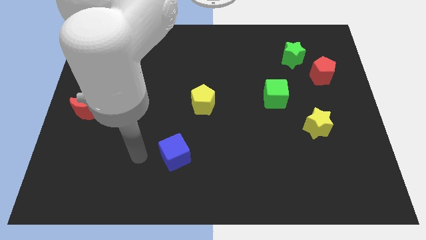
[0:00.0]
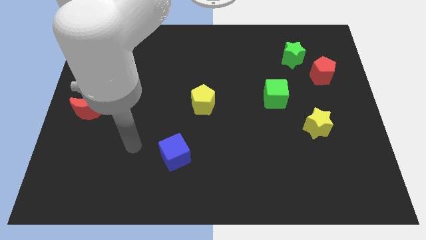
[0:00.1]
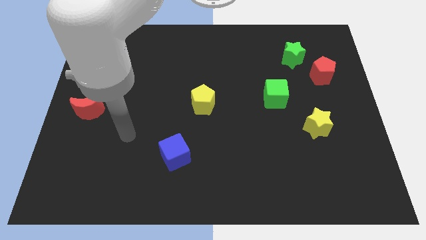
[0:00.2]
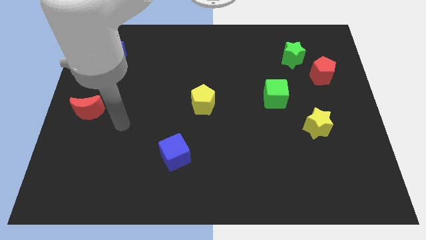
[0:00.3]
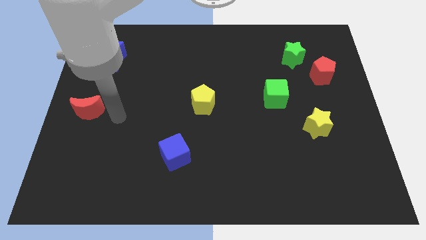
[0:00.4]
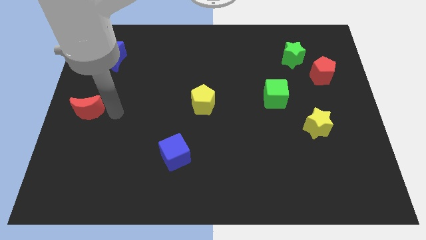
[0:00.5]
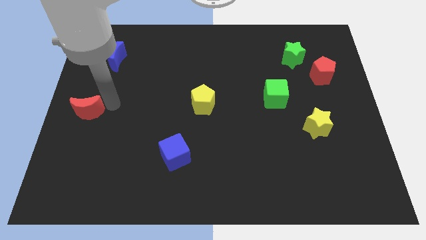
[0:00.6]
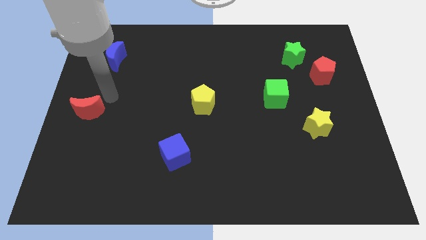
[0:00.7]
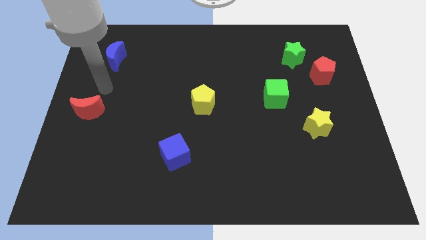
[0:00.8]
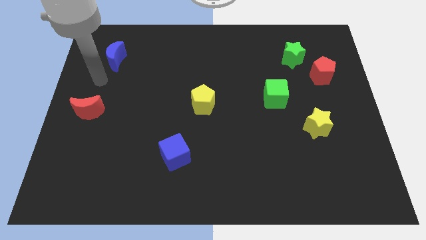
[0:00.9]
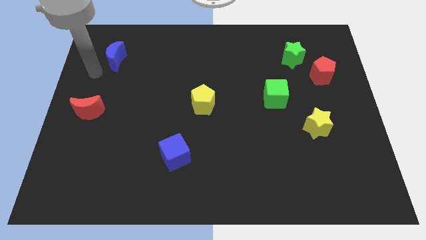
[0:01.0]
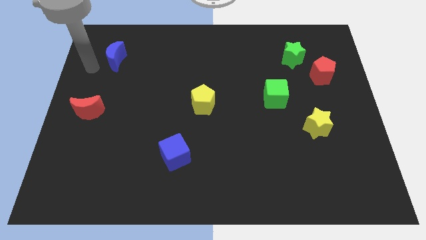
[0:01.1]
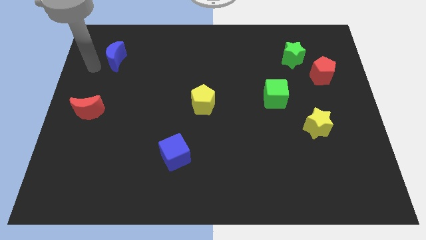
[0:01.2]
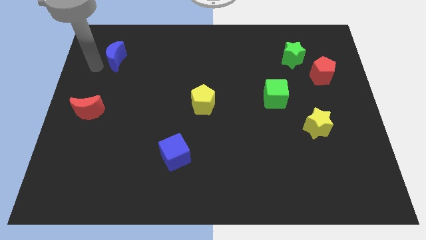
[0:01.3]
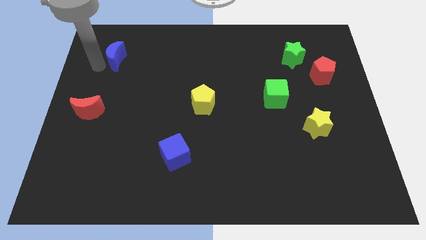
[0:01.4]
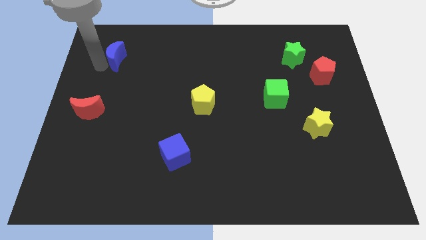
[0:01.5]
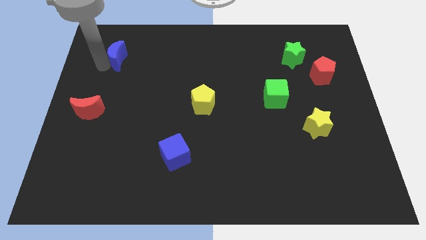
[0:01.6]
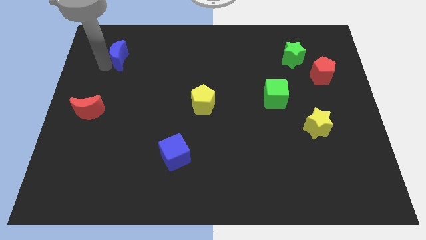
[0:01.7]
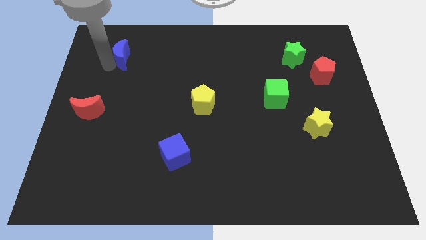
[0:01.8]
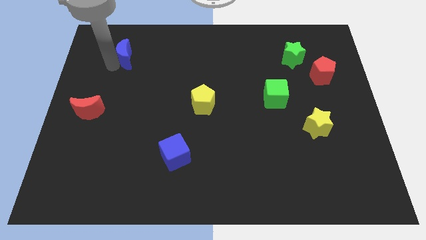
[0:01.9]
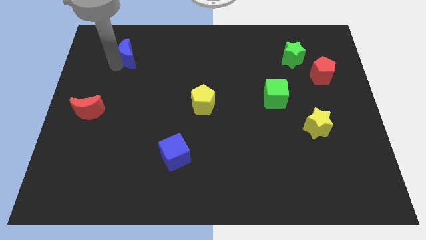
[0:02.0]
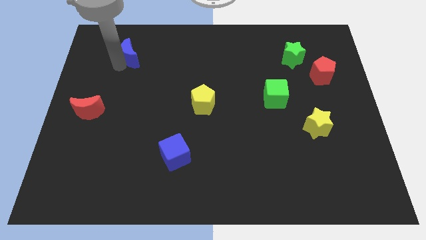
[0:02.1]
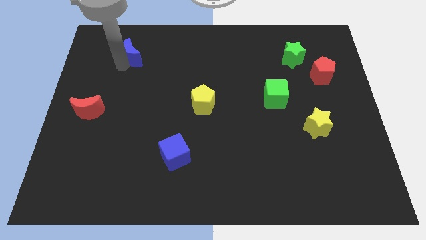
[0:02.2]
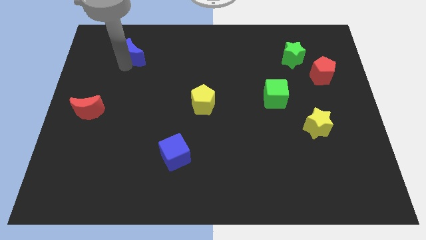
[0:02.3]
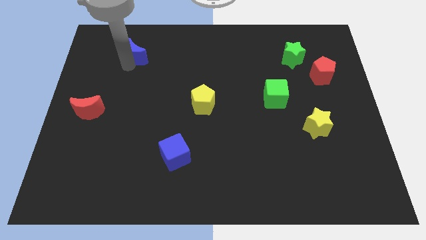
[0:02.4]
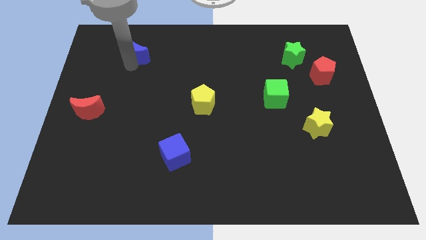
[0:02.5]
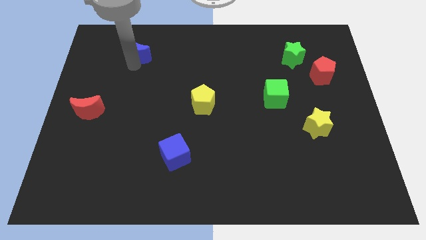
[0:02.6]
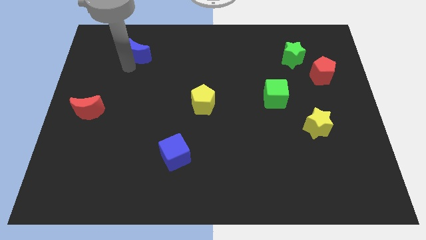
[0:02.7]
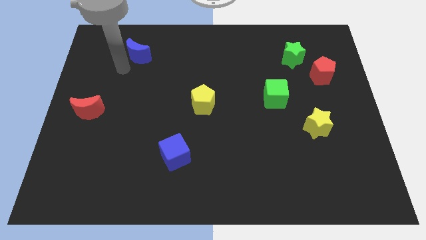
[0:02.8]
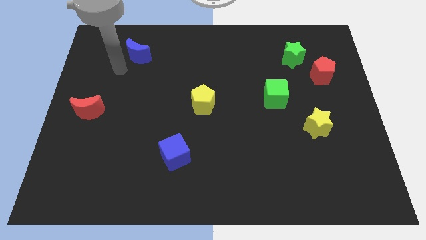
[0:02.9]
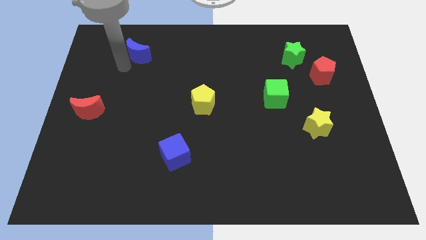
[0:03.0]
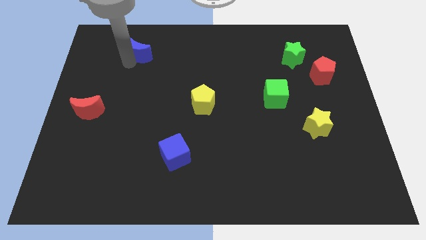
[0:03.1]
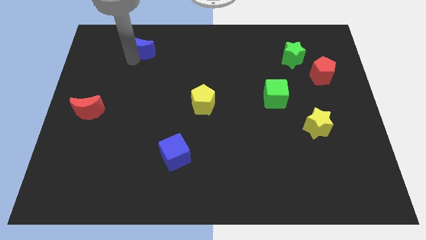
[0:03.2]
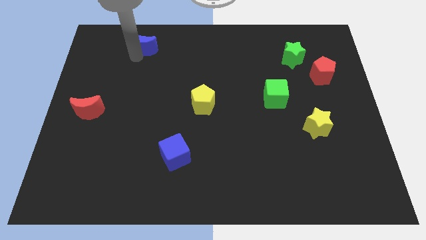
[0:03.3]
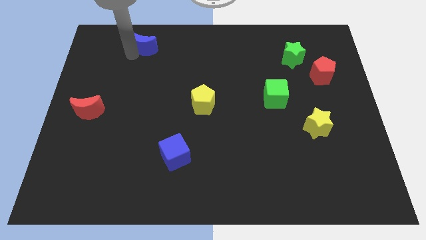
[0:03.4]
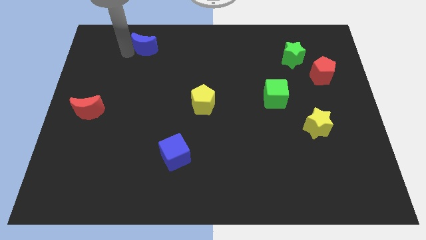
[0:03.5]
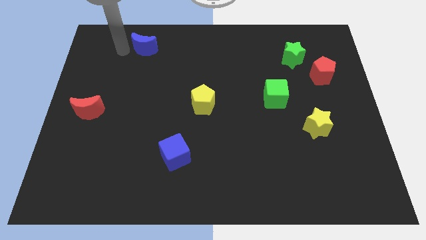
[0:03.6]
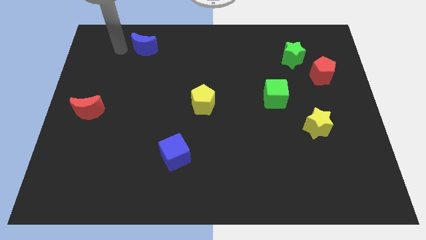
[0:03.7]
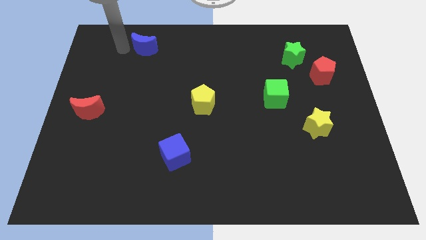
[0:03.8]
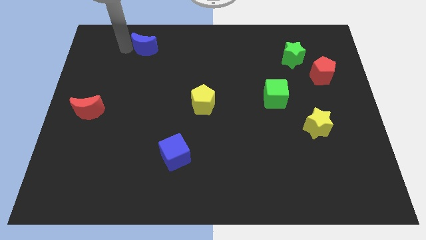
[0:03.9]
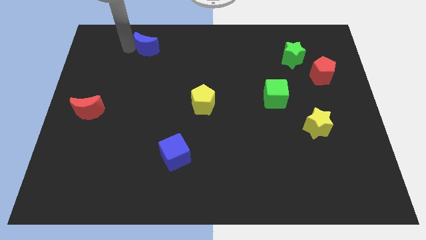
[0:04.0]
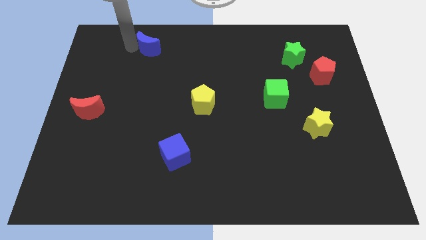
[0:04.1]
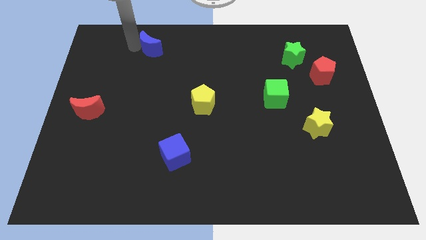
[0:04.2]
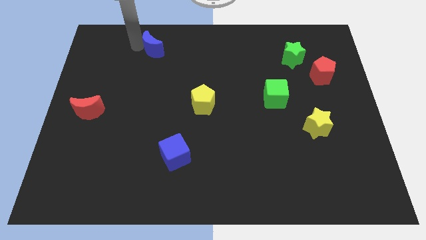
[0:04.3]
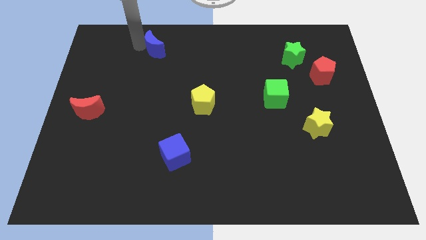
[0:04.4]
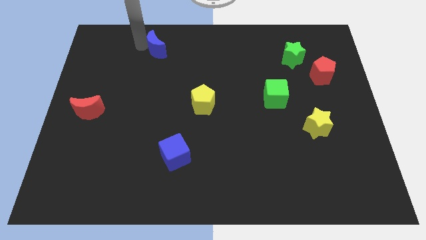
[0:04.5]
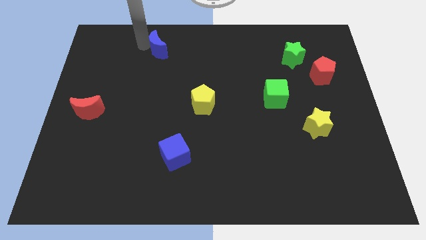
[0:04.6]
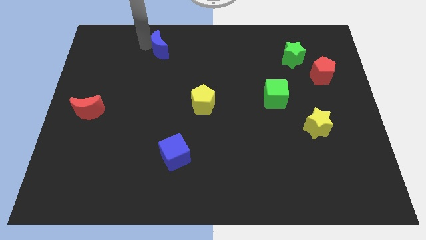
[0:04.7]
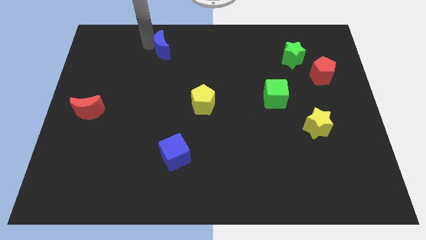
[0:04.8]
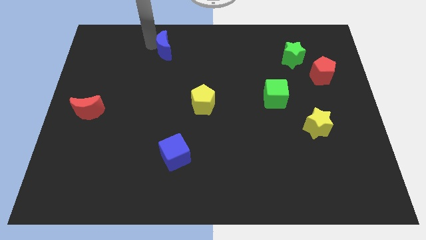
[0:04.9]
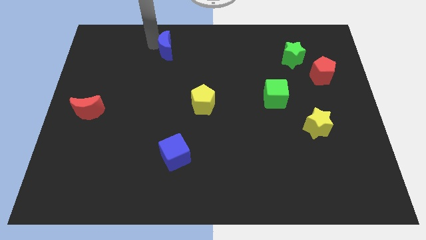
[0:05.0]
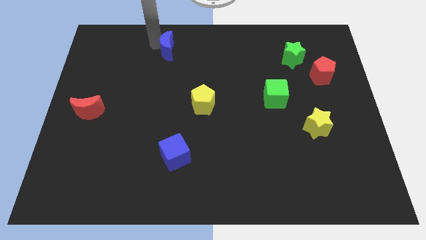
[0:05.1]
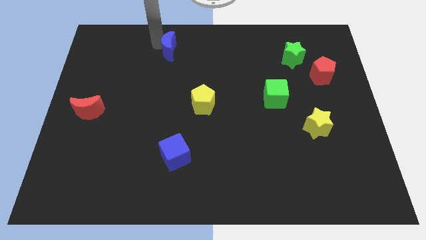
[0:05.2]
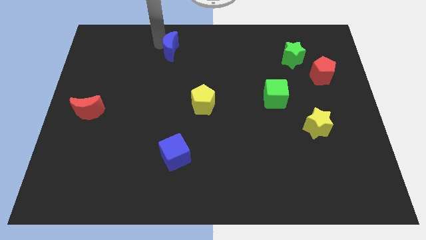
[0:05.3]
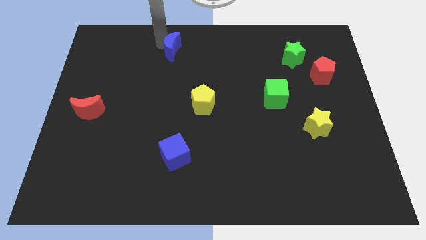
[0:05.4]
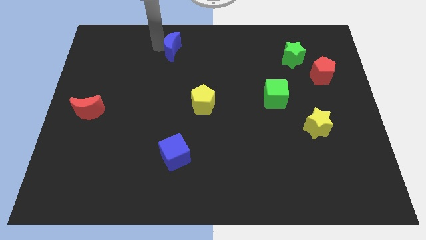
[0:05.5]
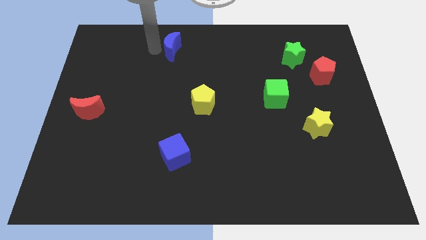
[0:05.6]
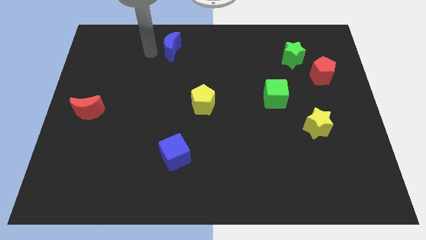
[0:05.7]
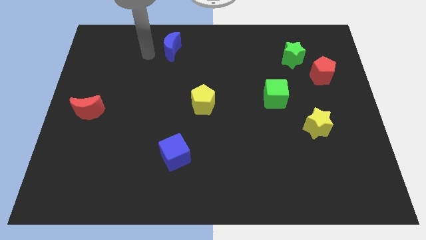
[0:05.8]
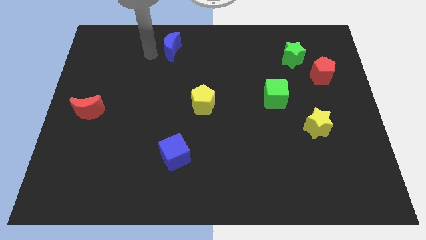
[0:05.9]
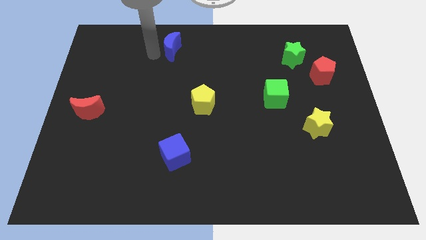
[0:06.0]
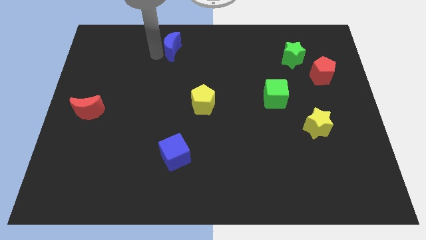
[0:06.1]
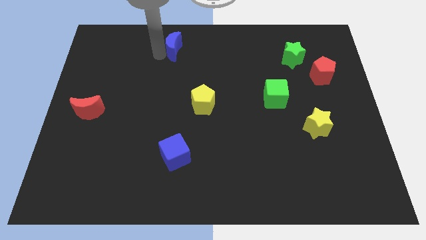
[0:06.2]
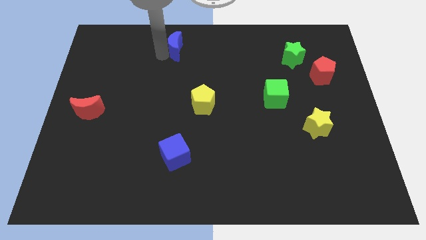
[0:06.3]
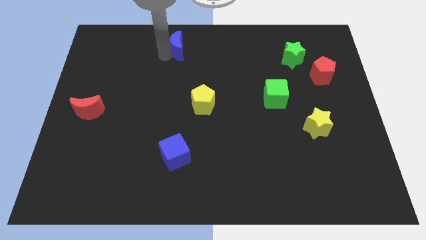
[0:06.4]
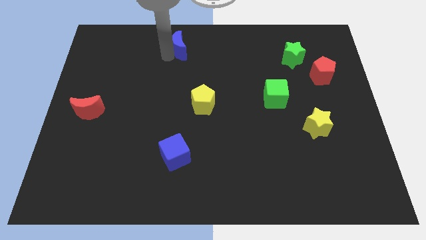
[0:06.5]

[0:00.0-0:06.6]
put the blue moon to the towards your base
